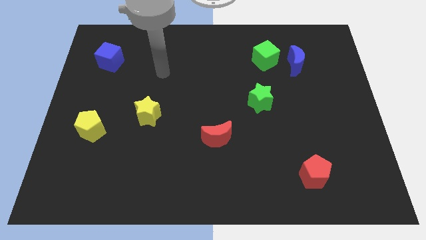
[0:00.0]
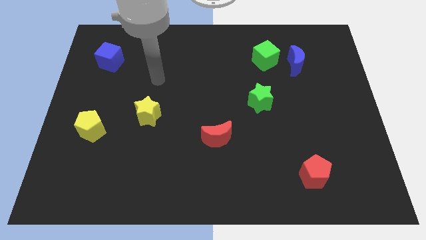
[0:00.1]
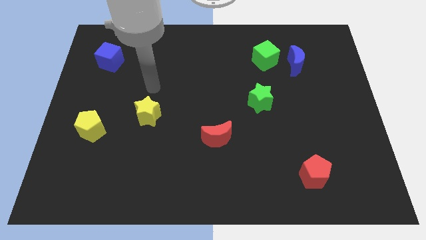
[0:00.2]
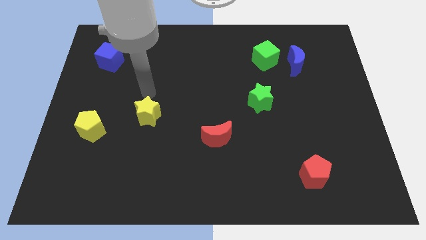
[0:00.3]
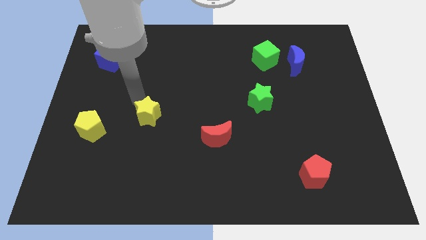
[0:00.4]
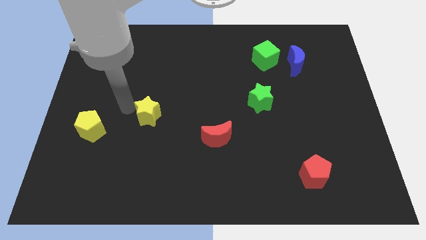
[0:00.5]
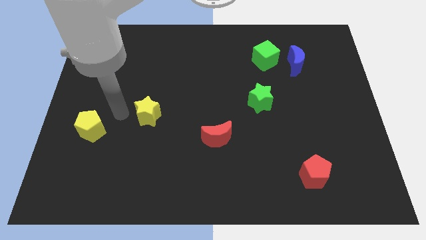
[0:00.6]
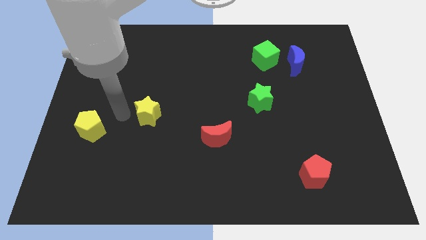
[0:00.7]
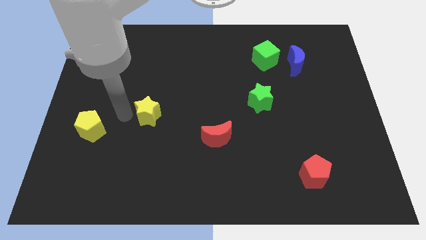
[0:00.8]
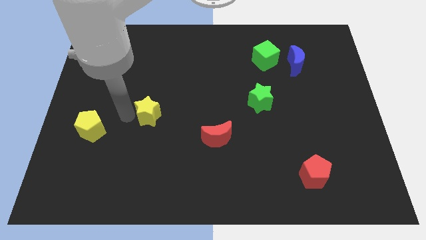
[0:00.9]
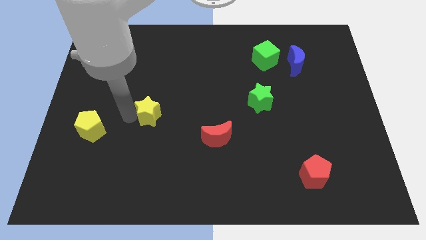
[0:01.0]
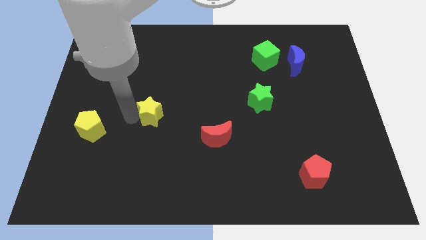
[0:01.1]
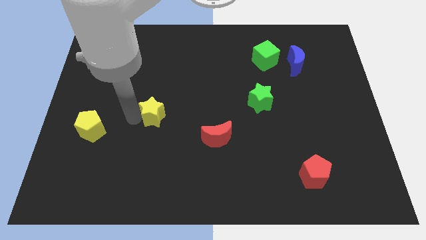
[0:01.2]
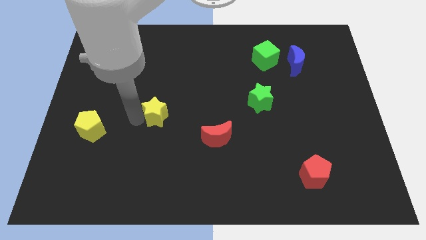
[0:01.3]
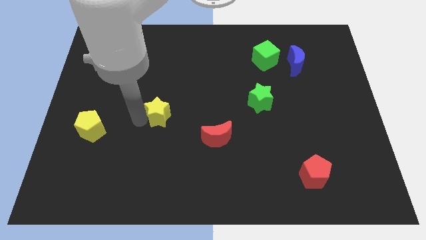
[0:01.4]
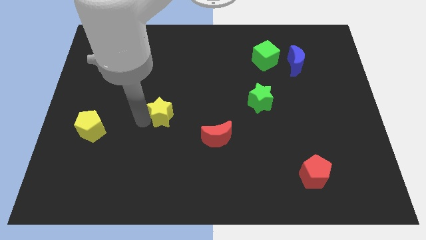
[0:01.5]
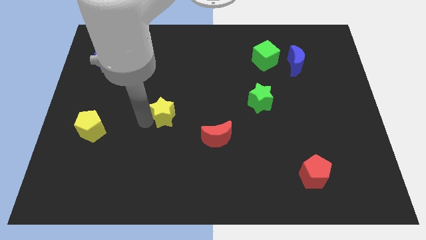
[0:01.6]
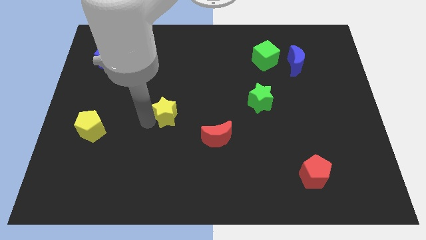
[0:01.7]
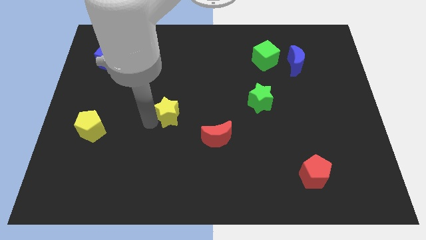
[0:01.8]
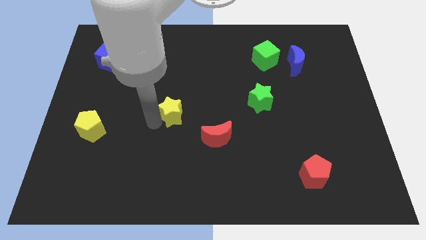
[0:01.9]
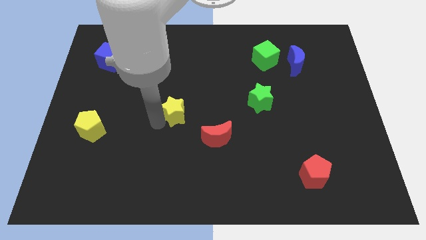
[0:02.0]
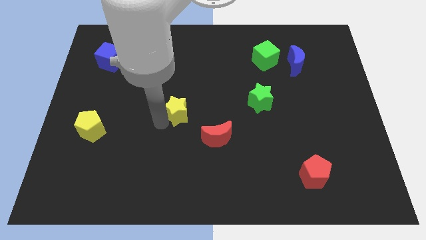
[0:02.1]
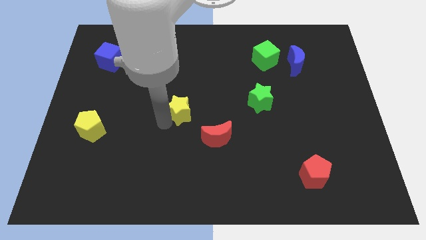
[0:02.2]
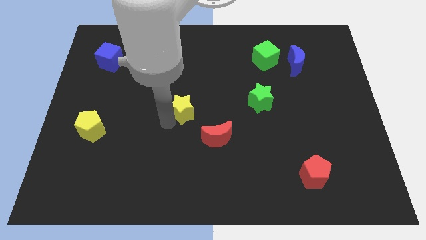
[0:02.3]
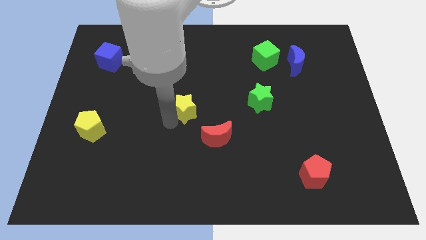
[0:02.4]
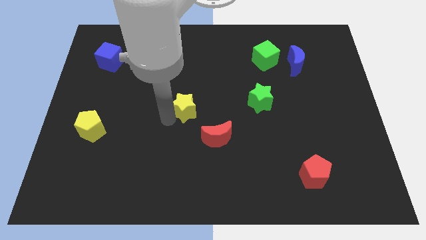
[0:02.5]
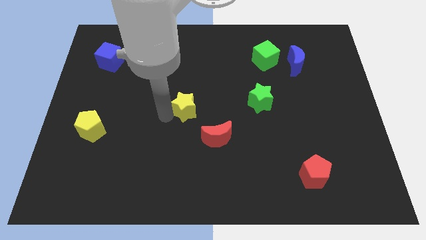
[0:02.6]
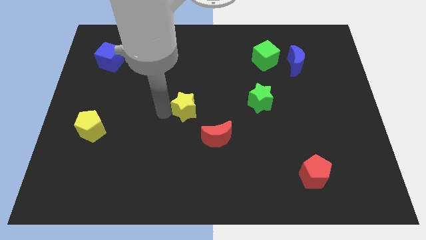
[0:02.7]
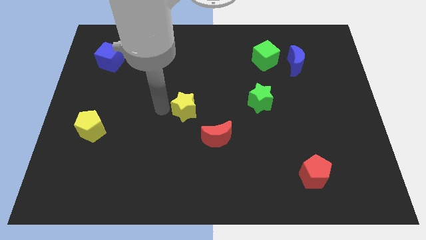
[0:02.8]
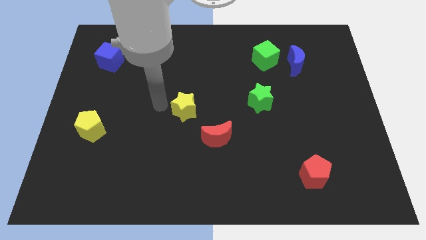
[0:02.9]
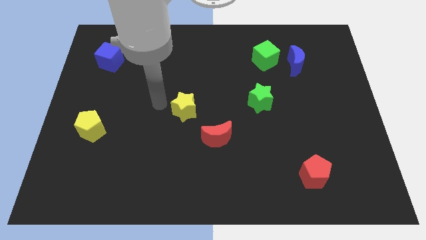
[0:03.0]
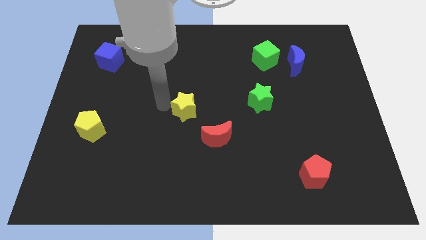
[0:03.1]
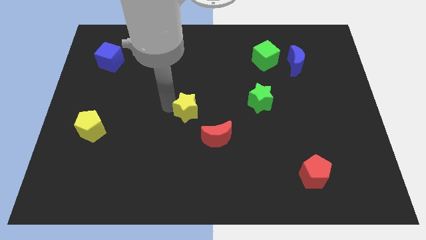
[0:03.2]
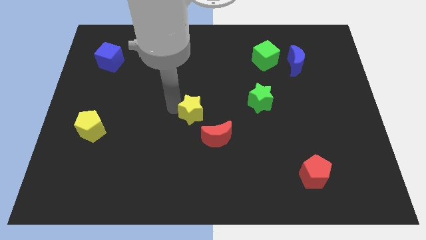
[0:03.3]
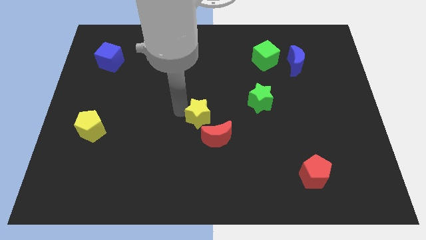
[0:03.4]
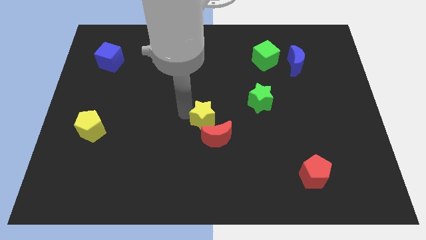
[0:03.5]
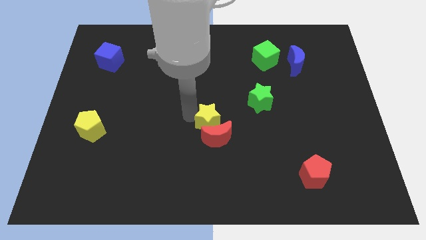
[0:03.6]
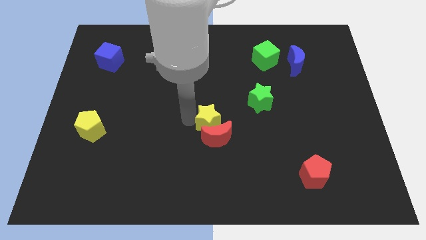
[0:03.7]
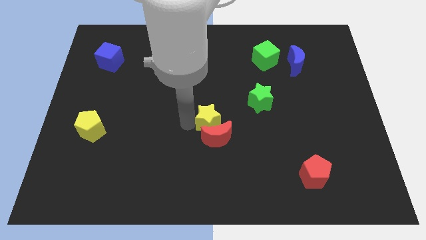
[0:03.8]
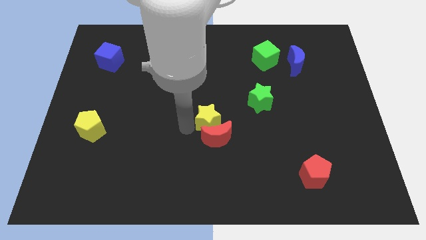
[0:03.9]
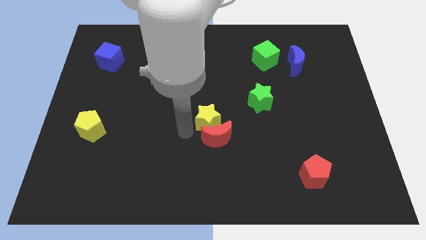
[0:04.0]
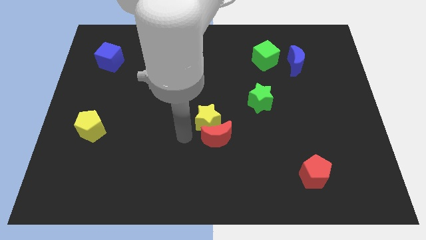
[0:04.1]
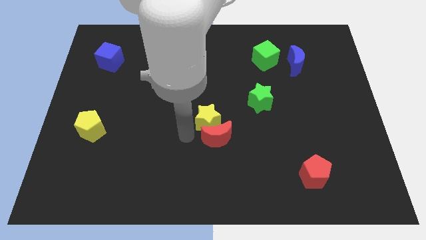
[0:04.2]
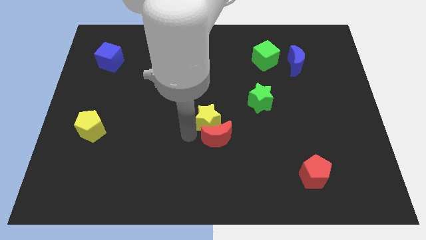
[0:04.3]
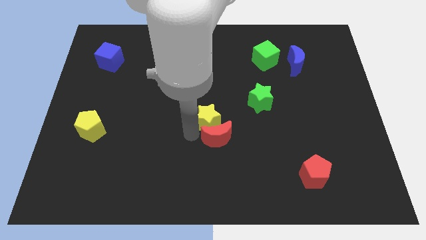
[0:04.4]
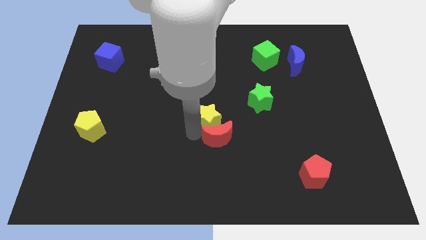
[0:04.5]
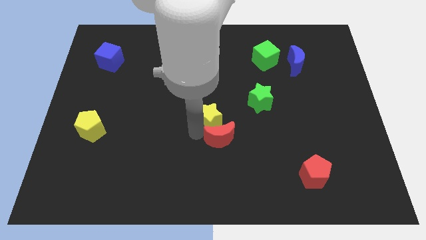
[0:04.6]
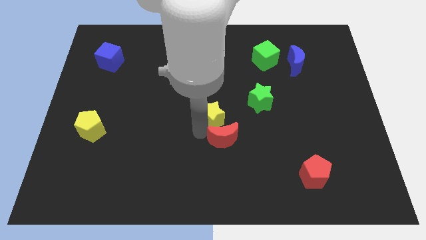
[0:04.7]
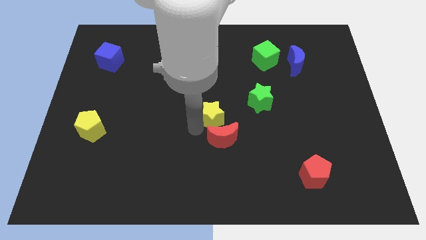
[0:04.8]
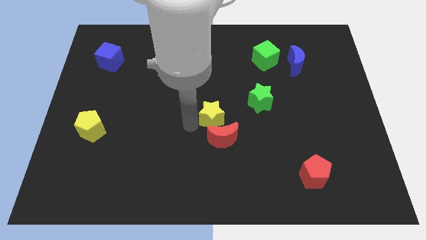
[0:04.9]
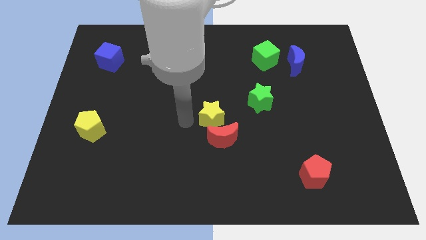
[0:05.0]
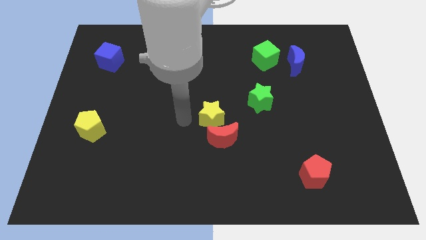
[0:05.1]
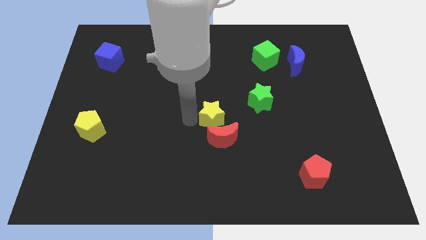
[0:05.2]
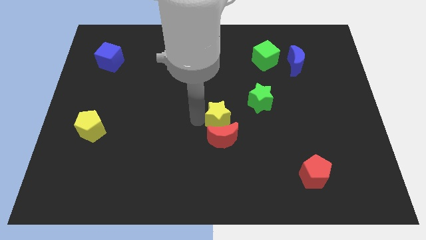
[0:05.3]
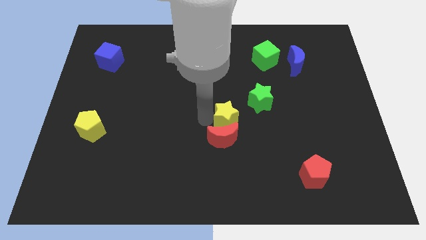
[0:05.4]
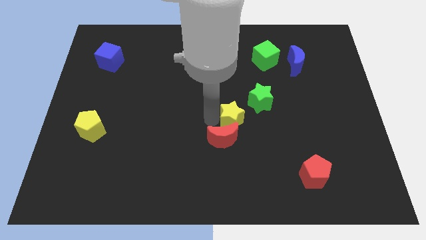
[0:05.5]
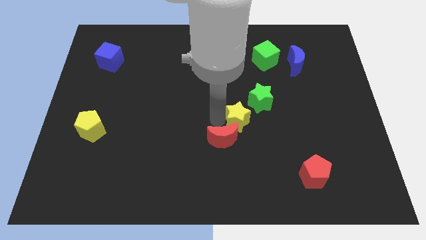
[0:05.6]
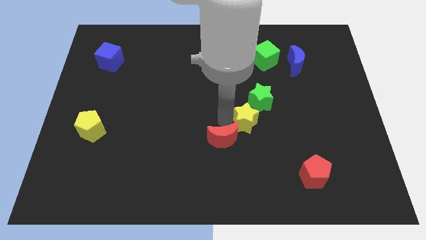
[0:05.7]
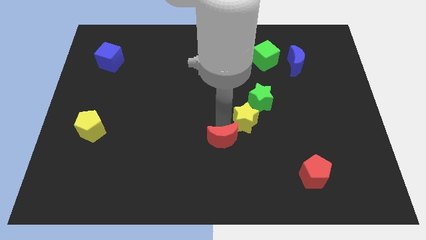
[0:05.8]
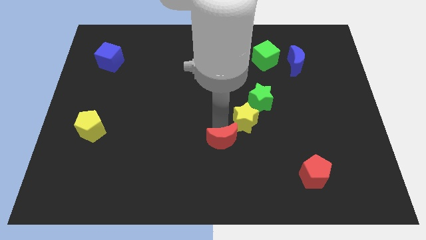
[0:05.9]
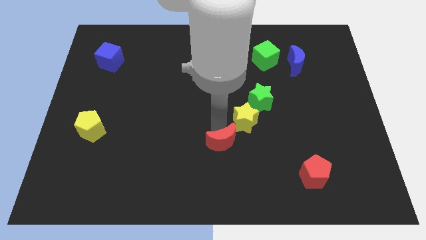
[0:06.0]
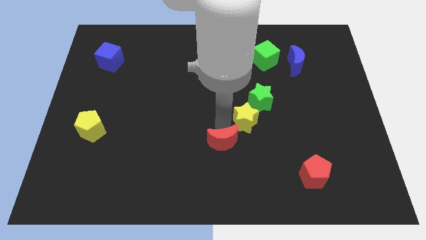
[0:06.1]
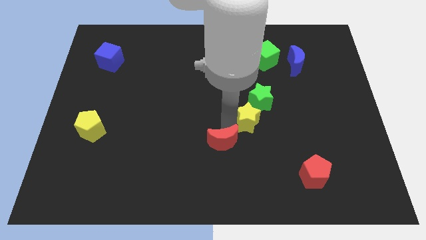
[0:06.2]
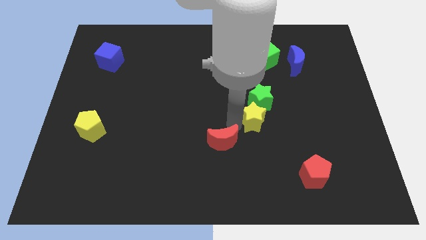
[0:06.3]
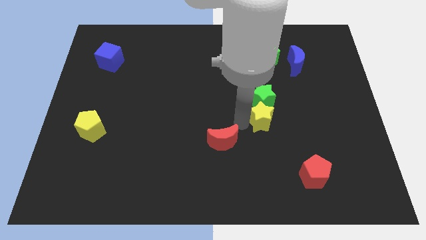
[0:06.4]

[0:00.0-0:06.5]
move the yellow star to the bottom right of the green star

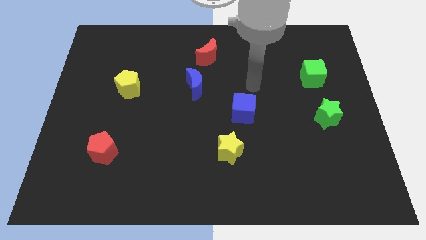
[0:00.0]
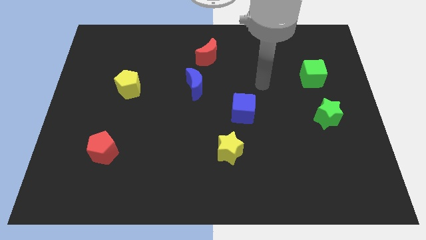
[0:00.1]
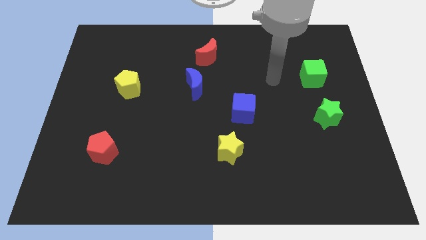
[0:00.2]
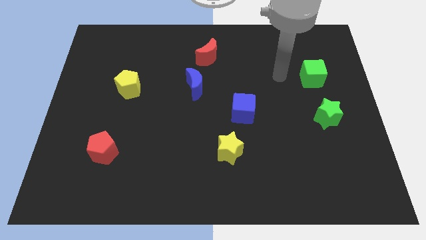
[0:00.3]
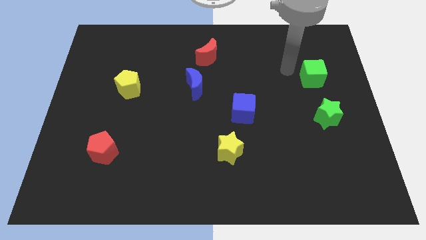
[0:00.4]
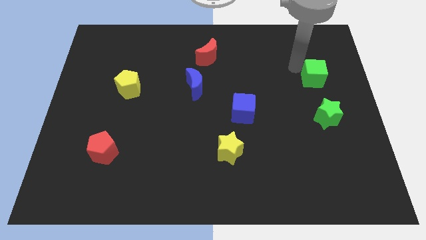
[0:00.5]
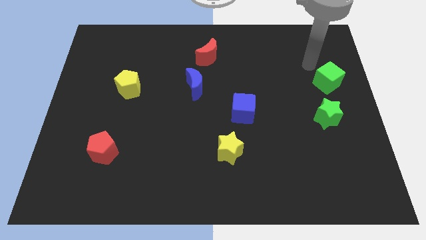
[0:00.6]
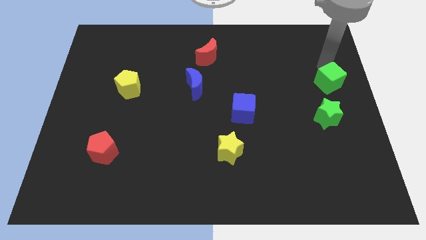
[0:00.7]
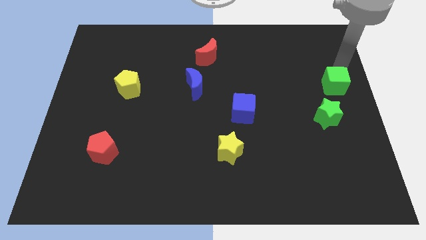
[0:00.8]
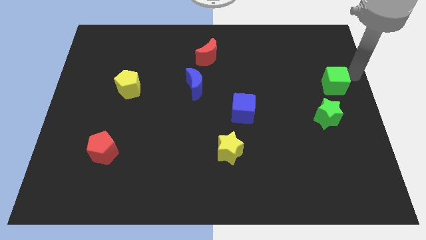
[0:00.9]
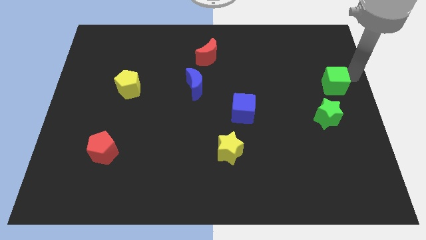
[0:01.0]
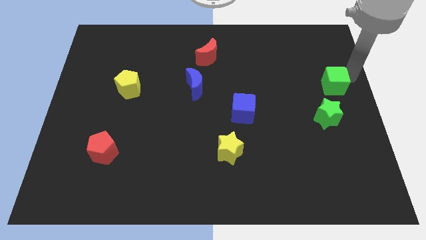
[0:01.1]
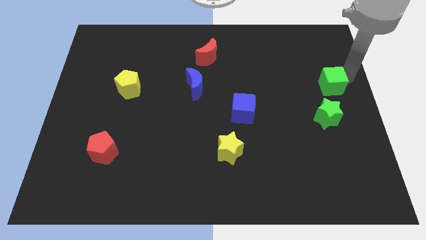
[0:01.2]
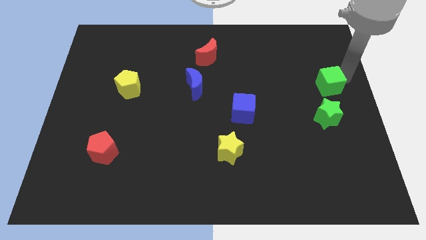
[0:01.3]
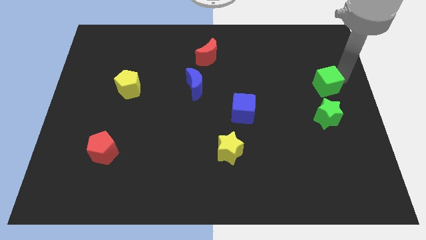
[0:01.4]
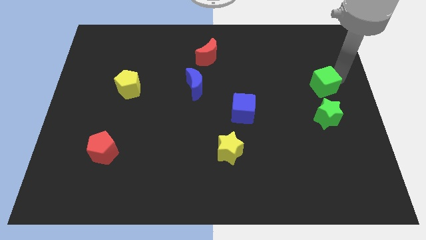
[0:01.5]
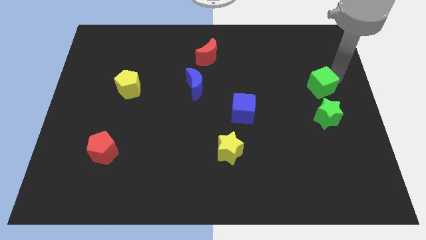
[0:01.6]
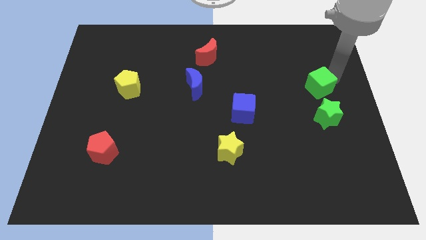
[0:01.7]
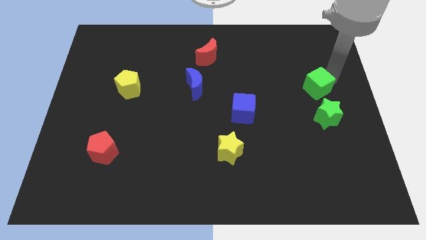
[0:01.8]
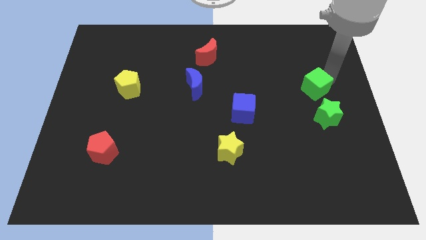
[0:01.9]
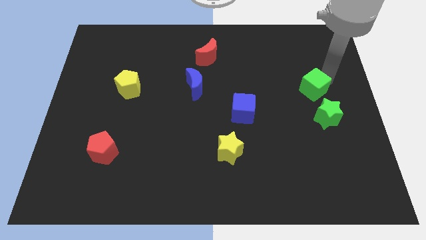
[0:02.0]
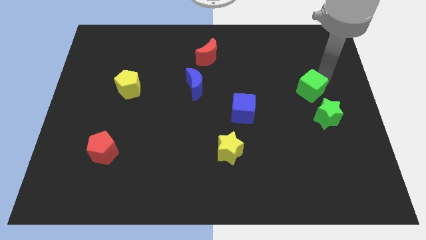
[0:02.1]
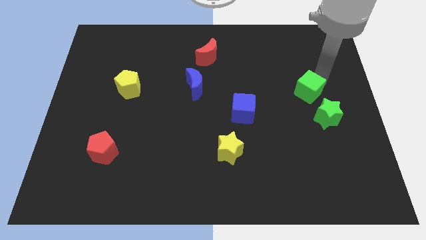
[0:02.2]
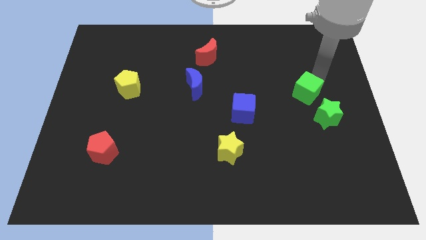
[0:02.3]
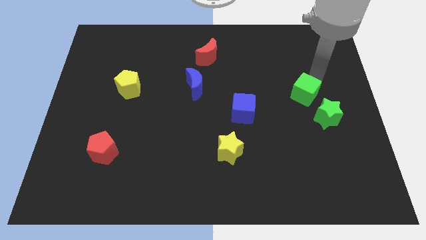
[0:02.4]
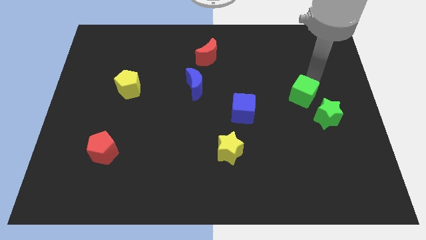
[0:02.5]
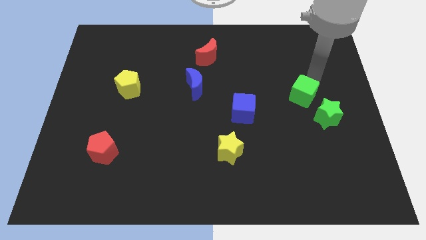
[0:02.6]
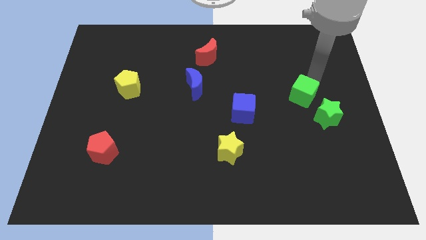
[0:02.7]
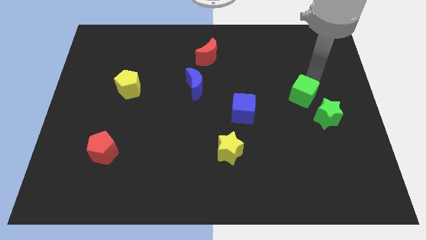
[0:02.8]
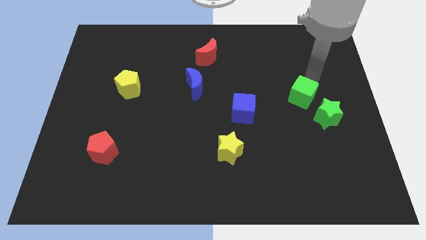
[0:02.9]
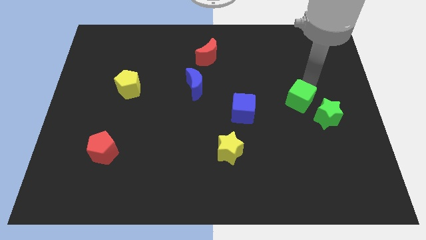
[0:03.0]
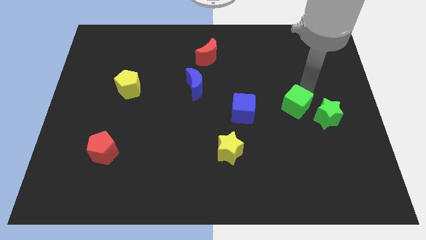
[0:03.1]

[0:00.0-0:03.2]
put the green cube left of the green star
